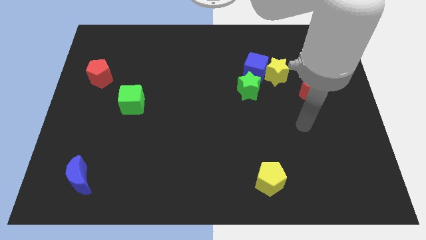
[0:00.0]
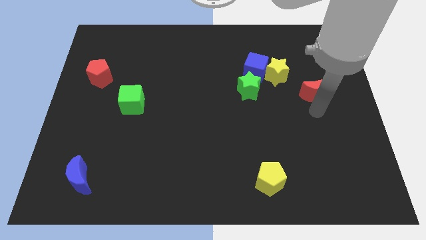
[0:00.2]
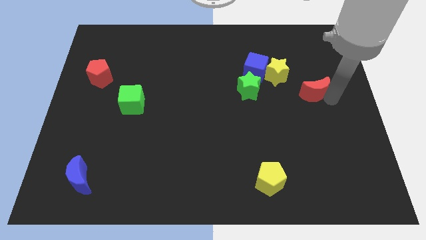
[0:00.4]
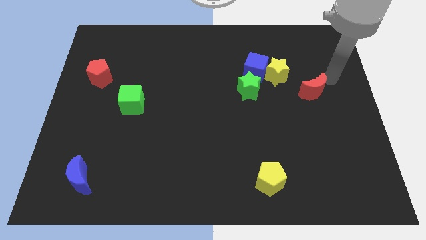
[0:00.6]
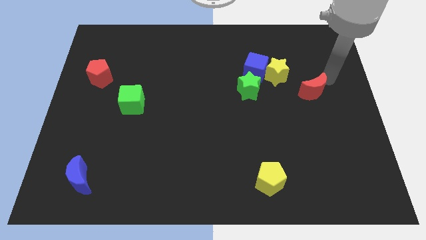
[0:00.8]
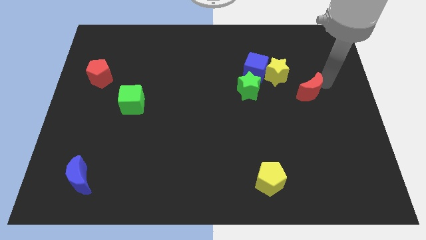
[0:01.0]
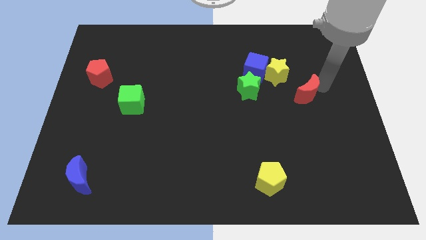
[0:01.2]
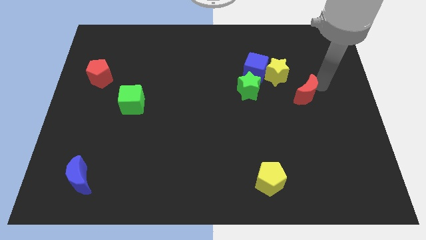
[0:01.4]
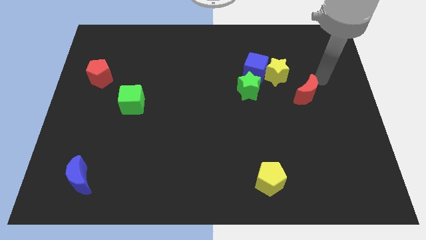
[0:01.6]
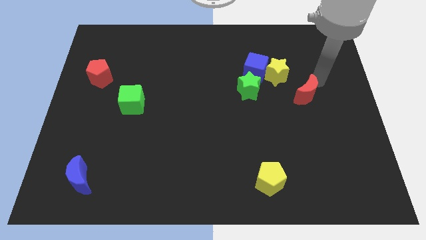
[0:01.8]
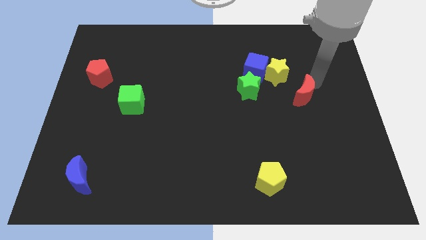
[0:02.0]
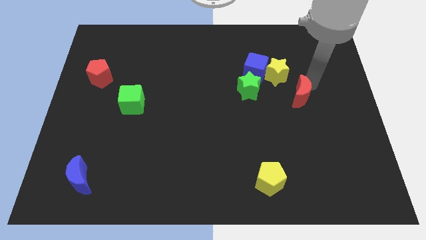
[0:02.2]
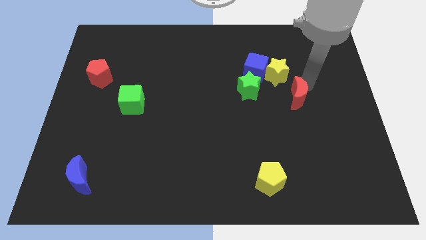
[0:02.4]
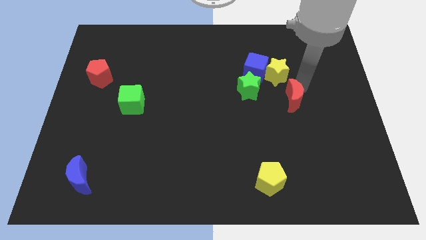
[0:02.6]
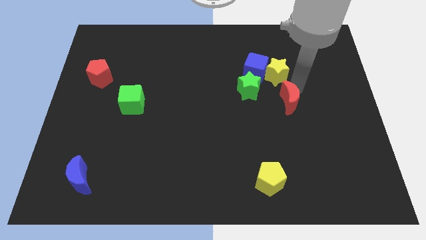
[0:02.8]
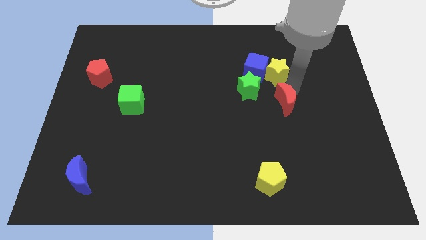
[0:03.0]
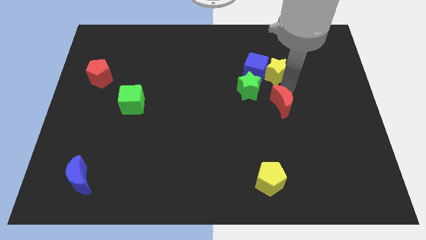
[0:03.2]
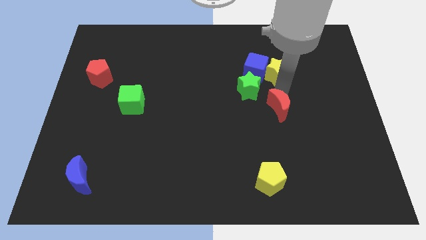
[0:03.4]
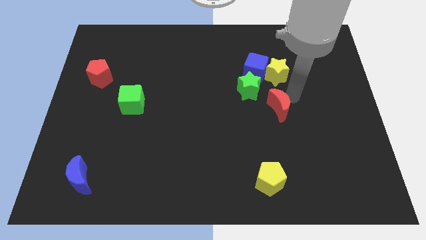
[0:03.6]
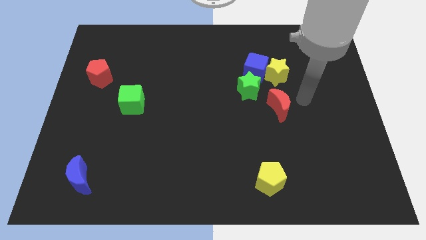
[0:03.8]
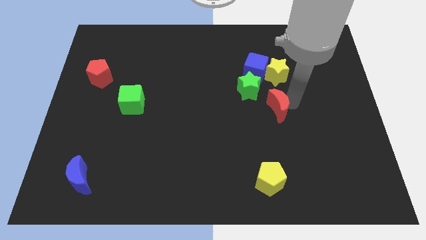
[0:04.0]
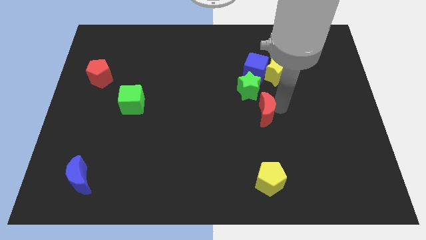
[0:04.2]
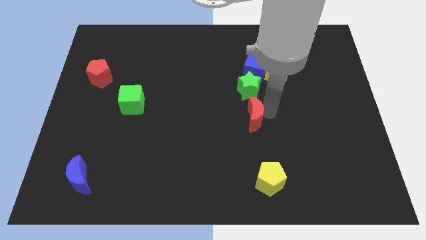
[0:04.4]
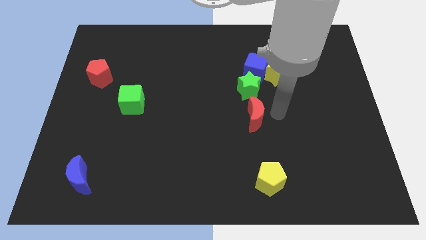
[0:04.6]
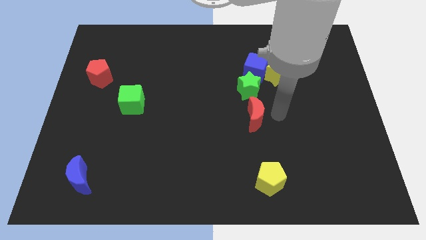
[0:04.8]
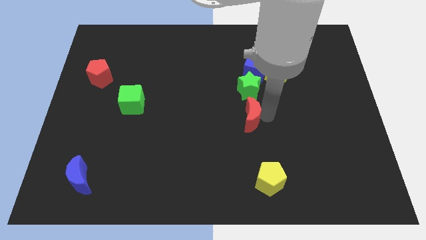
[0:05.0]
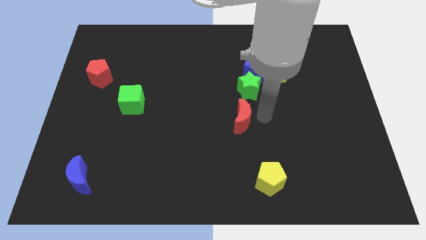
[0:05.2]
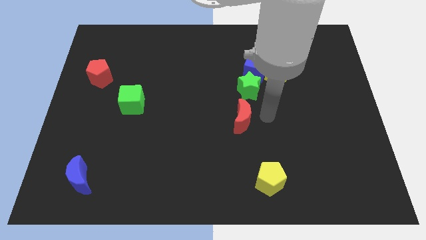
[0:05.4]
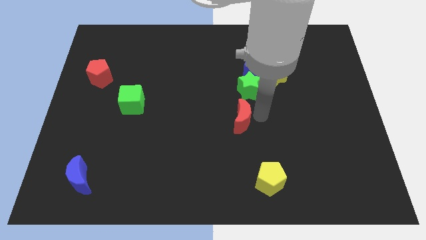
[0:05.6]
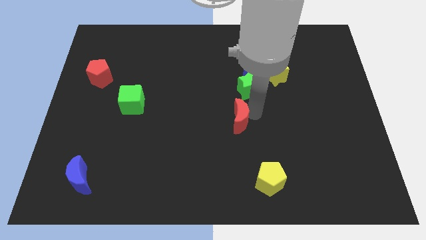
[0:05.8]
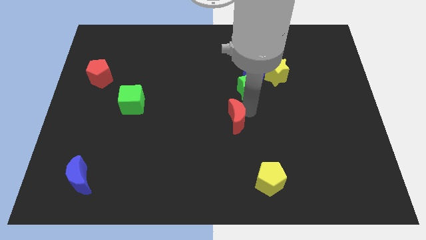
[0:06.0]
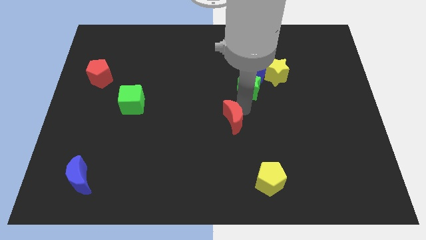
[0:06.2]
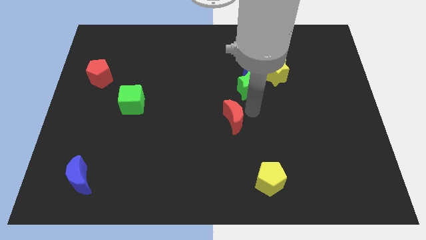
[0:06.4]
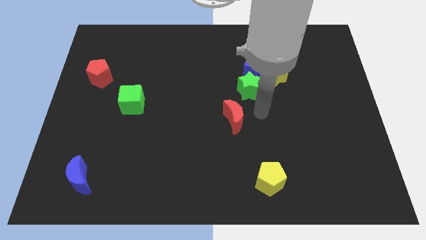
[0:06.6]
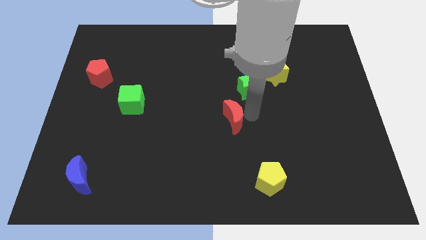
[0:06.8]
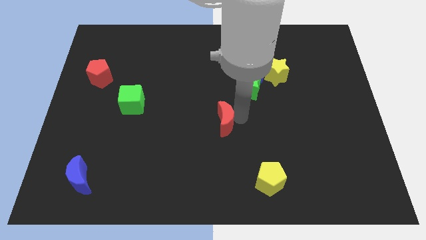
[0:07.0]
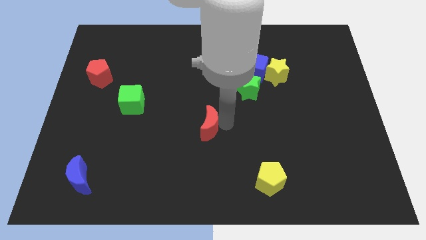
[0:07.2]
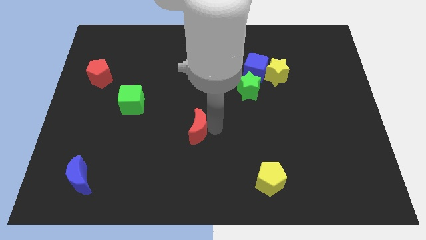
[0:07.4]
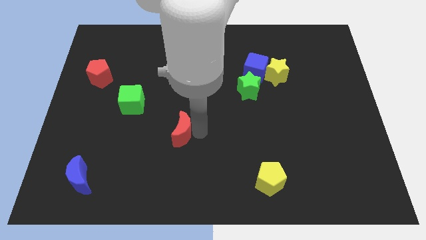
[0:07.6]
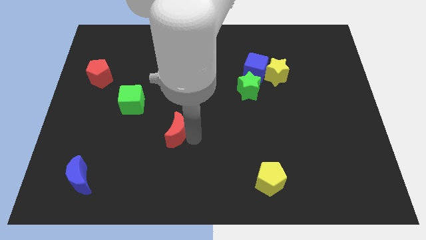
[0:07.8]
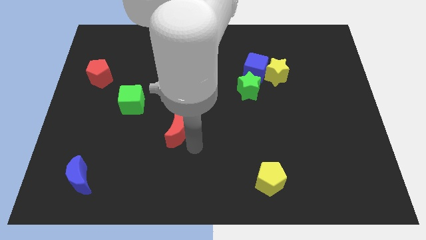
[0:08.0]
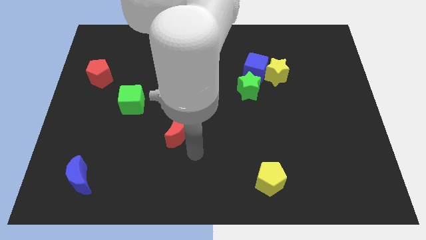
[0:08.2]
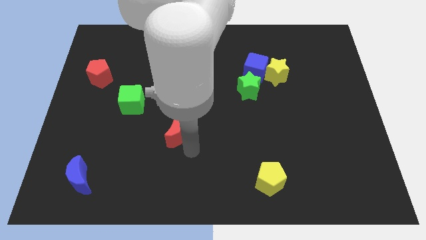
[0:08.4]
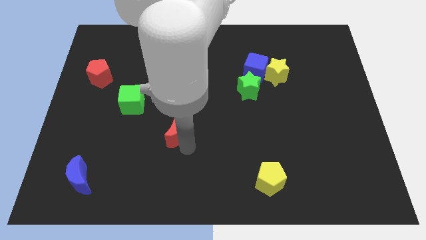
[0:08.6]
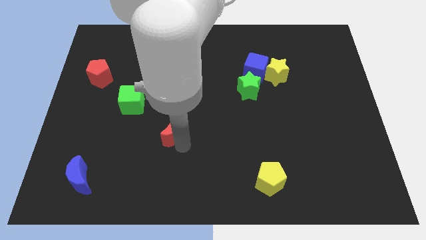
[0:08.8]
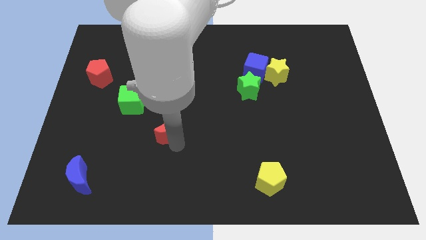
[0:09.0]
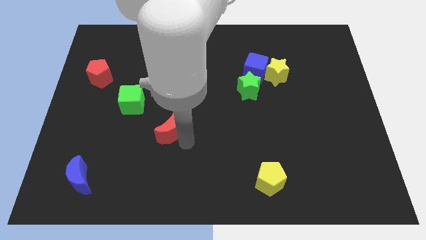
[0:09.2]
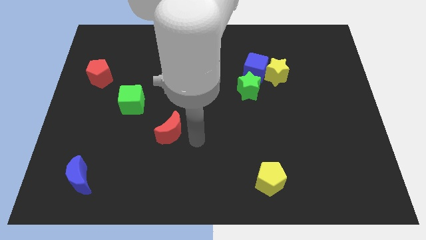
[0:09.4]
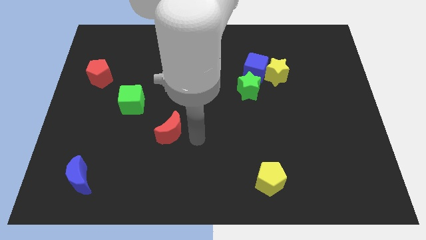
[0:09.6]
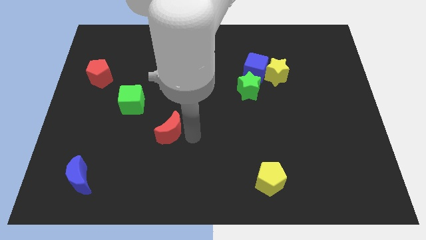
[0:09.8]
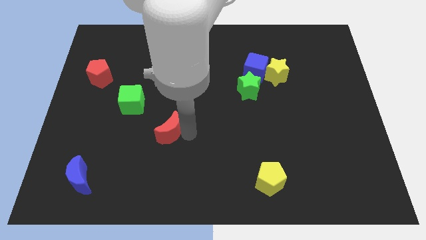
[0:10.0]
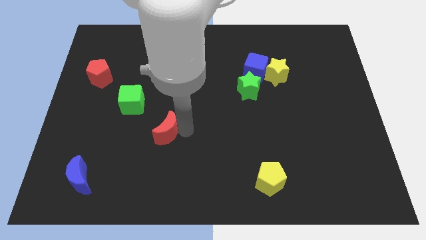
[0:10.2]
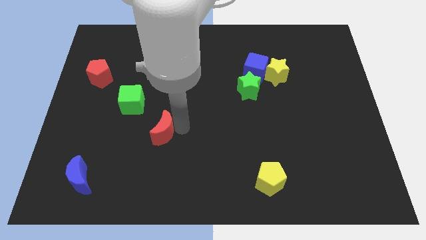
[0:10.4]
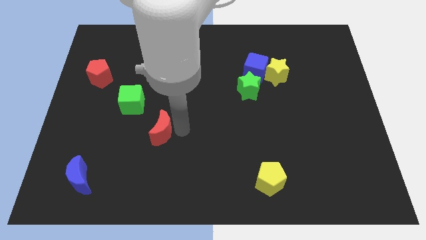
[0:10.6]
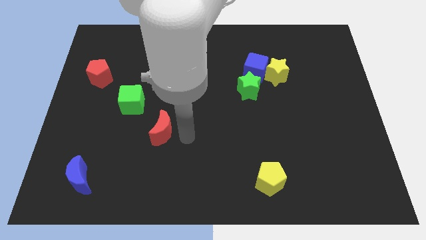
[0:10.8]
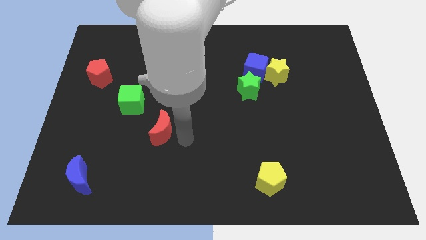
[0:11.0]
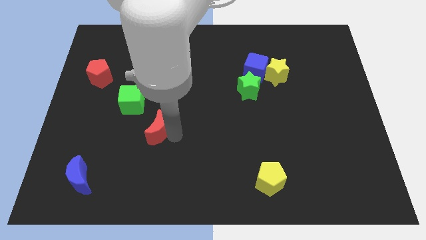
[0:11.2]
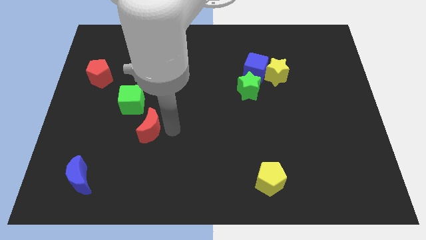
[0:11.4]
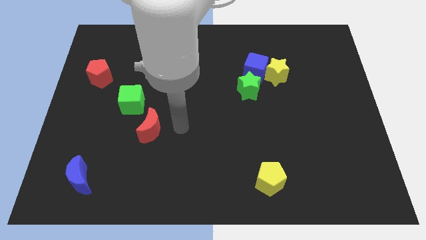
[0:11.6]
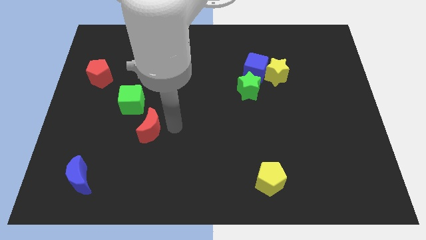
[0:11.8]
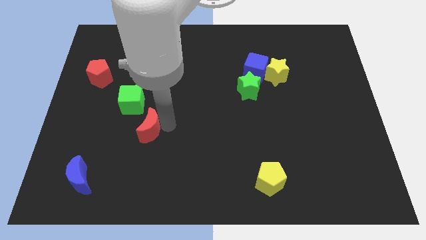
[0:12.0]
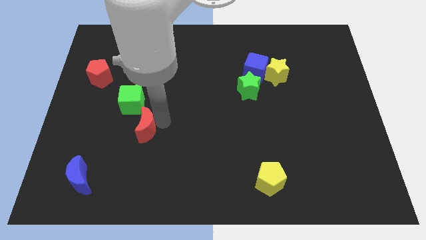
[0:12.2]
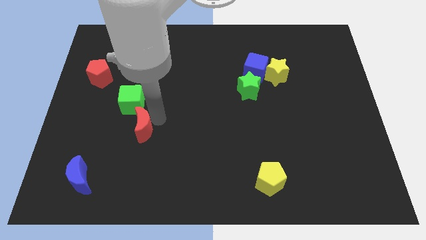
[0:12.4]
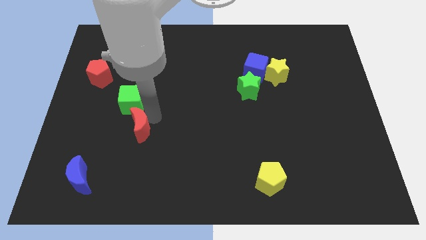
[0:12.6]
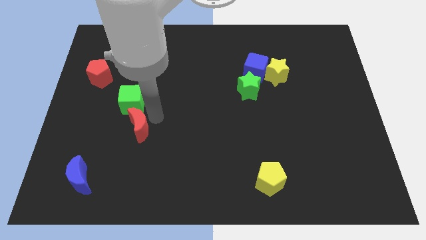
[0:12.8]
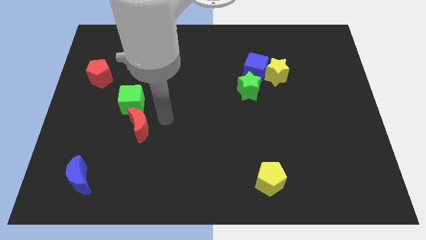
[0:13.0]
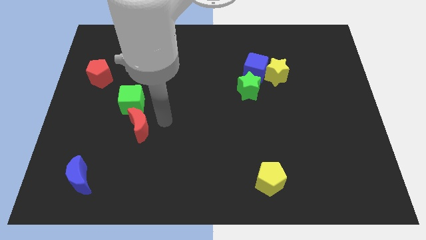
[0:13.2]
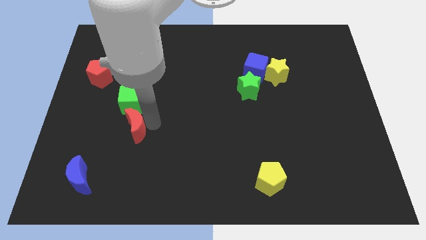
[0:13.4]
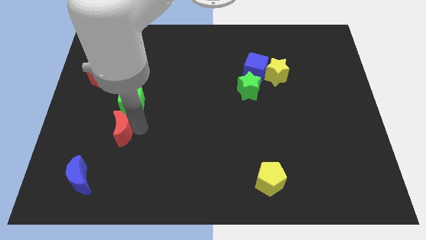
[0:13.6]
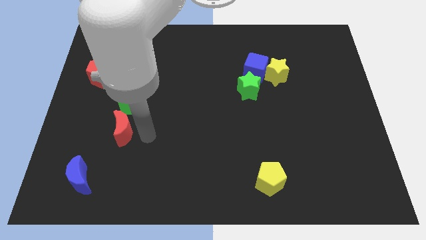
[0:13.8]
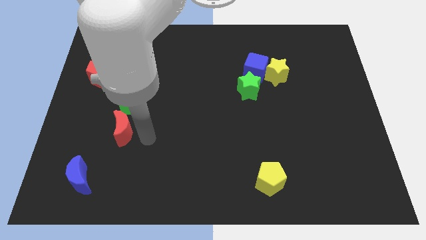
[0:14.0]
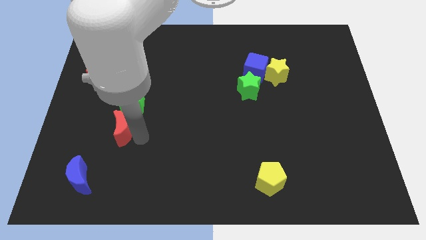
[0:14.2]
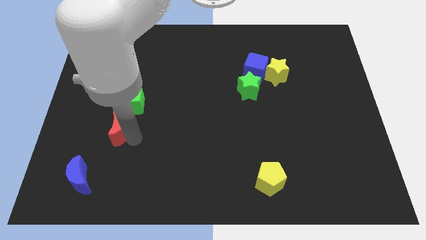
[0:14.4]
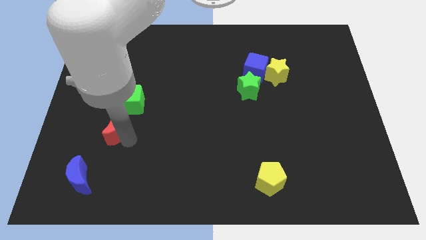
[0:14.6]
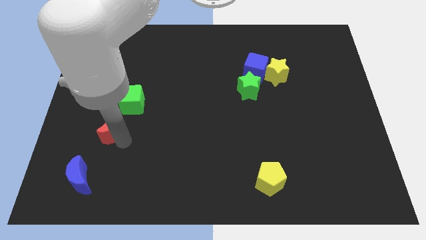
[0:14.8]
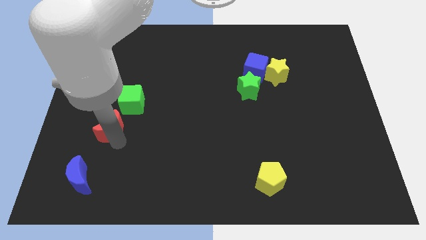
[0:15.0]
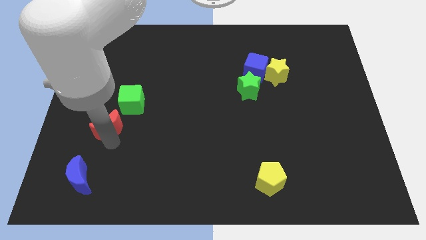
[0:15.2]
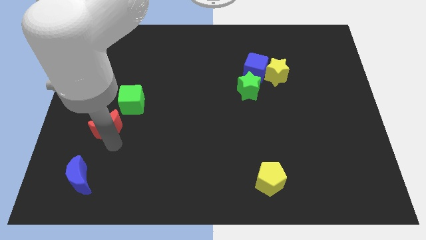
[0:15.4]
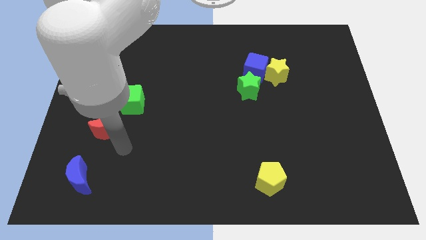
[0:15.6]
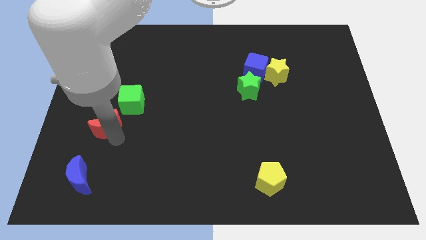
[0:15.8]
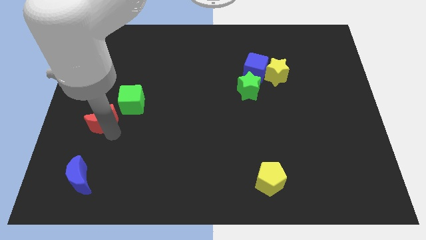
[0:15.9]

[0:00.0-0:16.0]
put the red moon to the bottom side of the red pentagon
